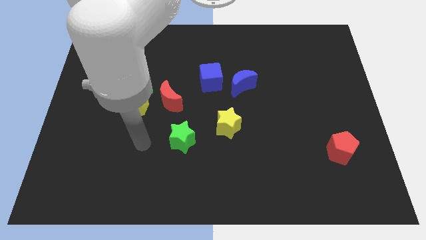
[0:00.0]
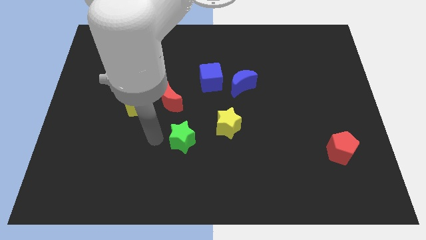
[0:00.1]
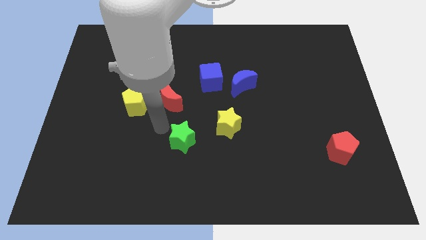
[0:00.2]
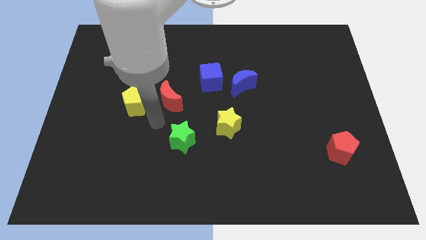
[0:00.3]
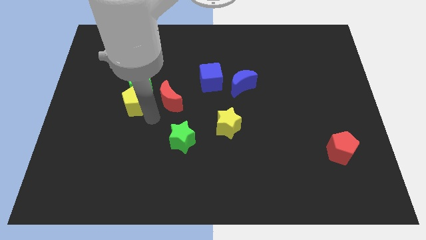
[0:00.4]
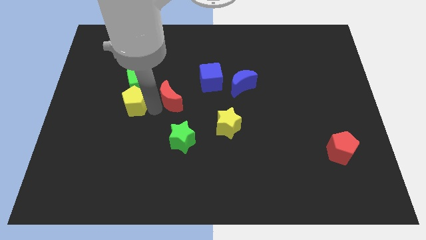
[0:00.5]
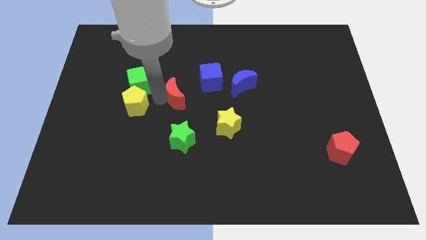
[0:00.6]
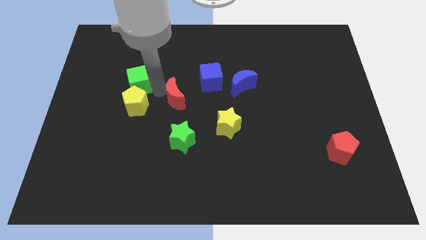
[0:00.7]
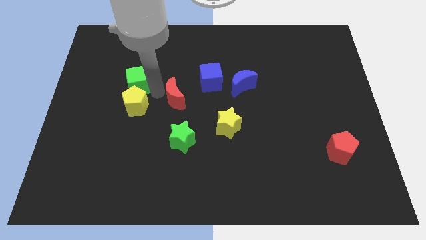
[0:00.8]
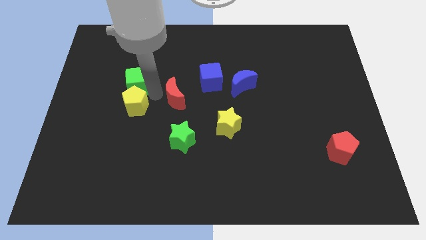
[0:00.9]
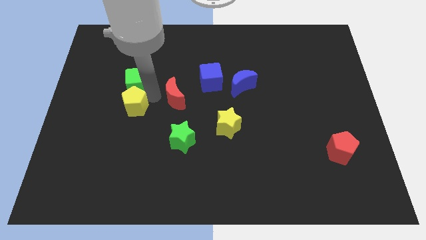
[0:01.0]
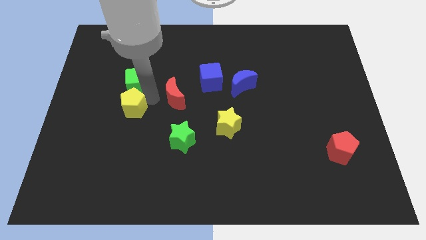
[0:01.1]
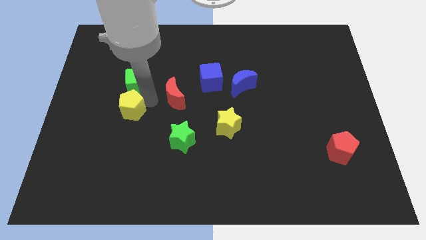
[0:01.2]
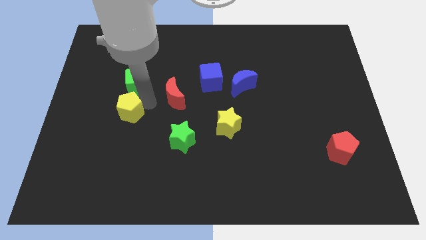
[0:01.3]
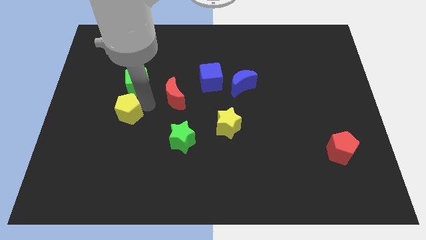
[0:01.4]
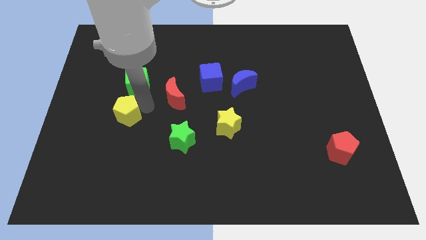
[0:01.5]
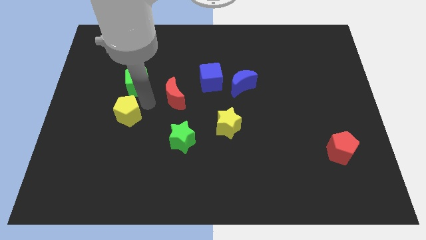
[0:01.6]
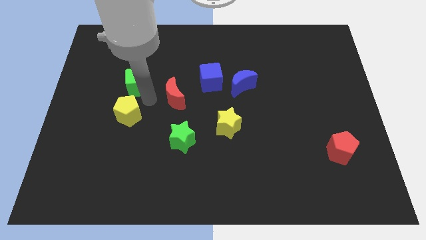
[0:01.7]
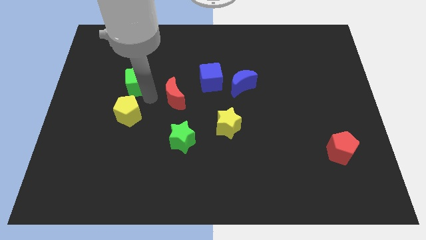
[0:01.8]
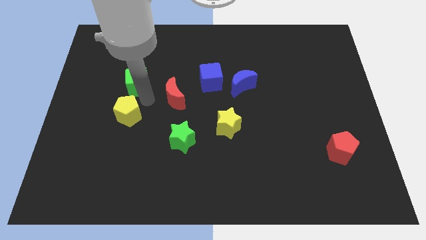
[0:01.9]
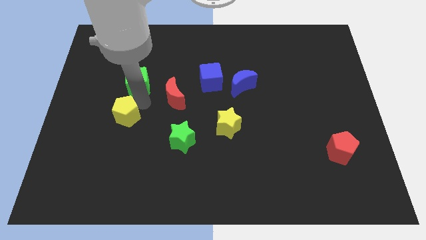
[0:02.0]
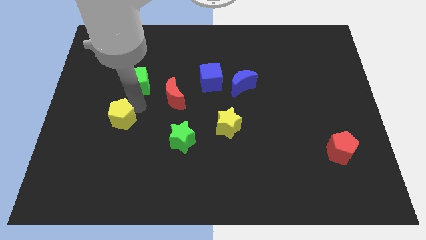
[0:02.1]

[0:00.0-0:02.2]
move the yellow pentagon away from the green cube and red moon

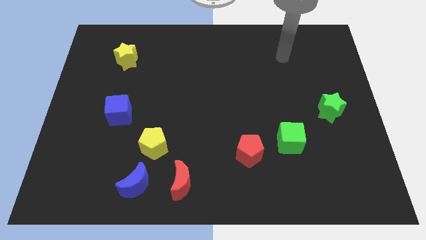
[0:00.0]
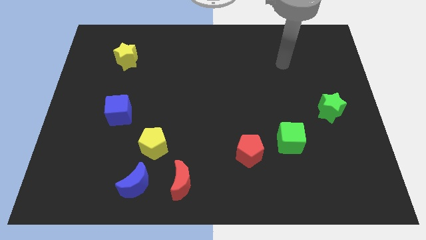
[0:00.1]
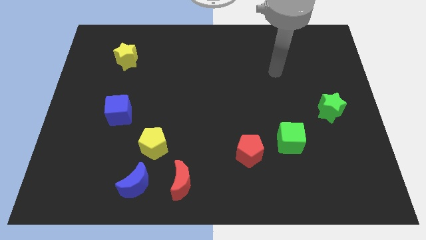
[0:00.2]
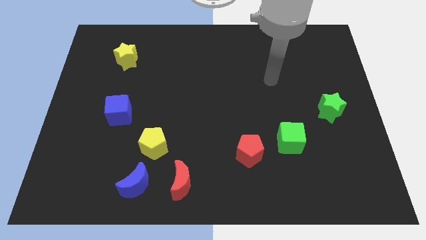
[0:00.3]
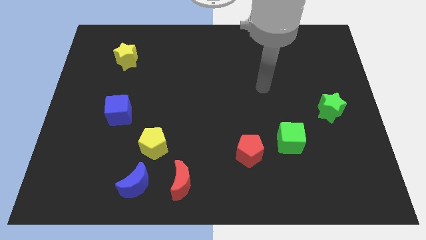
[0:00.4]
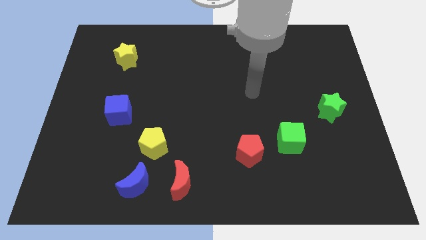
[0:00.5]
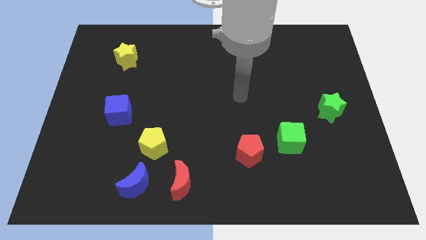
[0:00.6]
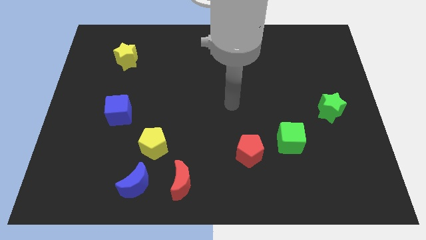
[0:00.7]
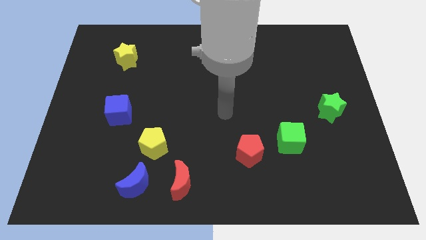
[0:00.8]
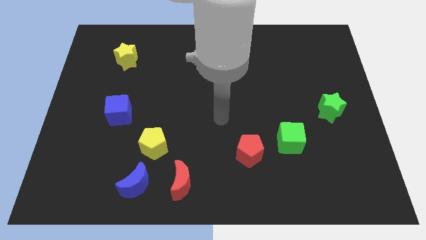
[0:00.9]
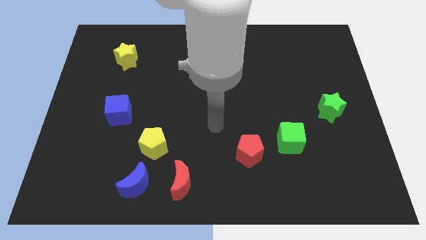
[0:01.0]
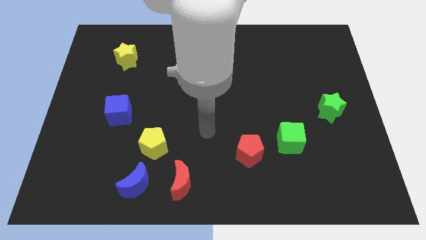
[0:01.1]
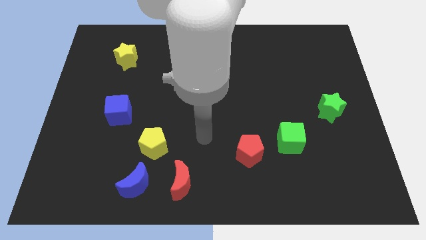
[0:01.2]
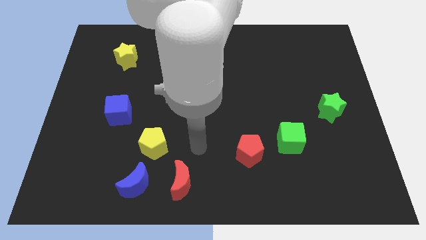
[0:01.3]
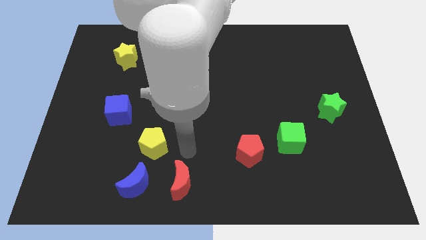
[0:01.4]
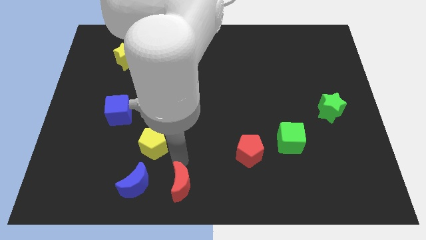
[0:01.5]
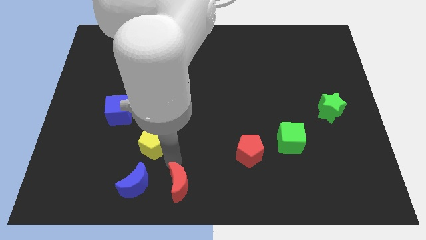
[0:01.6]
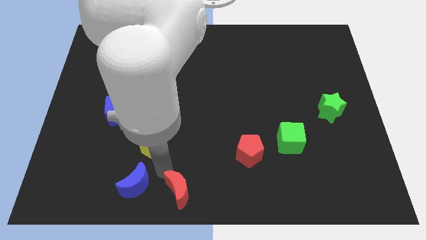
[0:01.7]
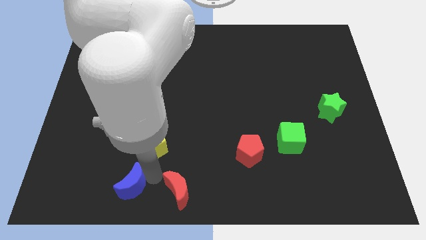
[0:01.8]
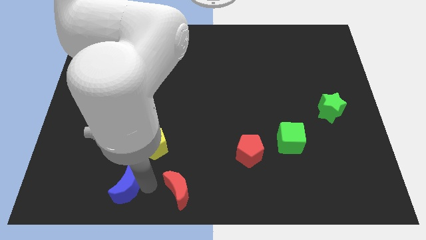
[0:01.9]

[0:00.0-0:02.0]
pull the red moon apart from the blue moon

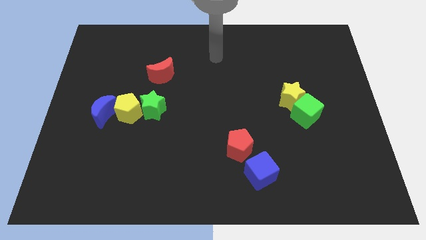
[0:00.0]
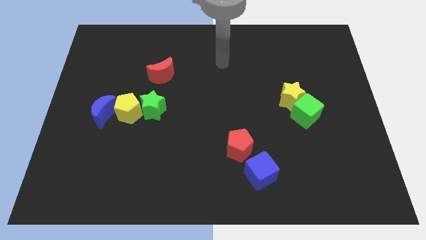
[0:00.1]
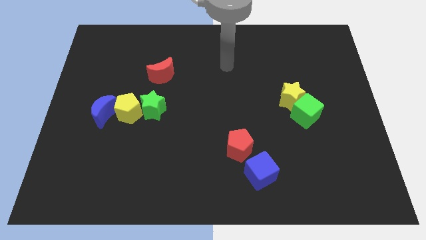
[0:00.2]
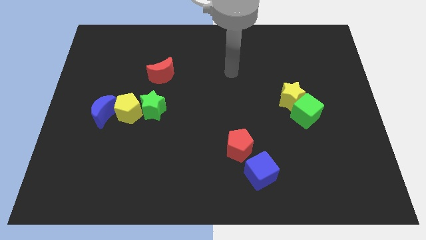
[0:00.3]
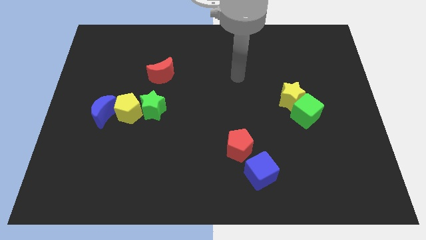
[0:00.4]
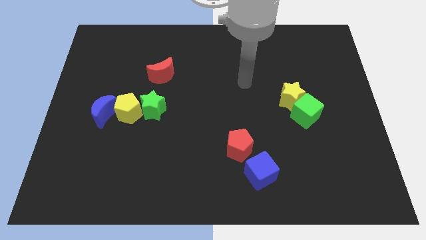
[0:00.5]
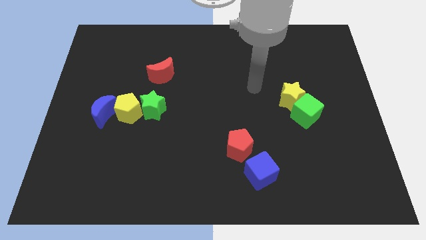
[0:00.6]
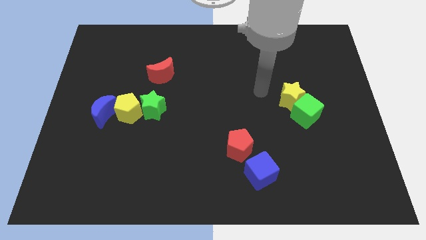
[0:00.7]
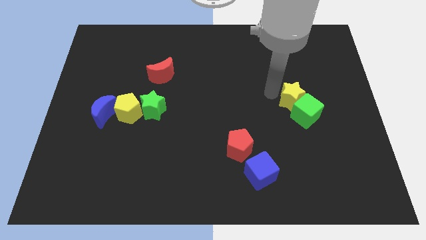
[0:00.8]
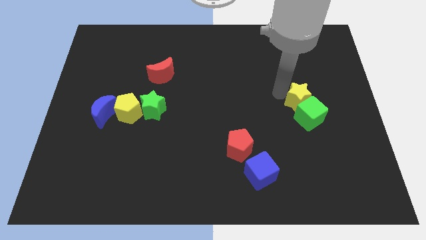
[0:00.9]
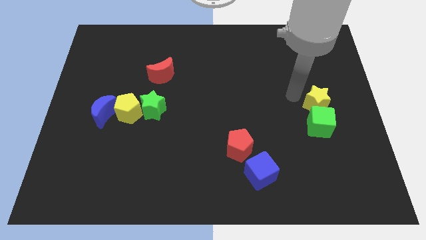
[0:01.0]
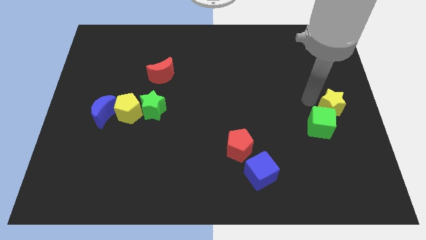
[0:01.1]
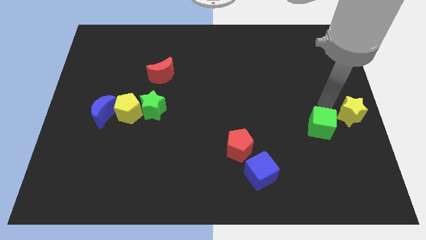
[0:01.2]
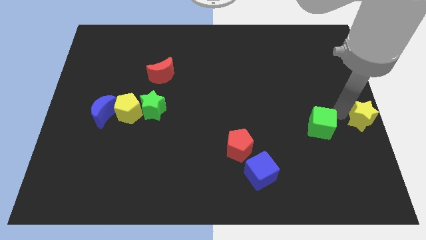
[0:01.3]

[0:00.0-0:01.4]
pull the green cube apart from the yellow star

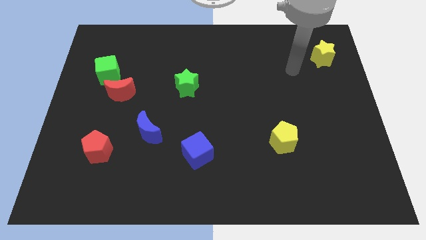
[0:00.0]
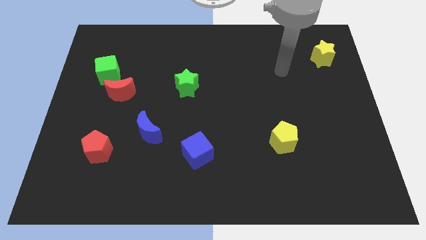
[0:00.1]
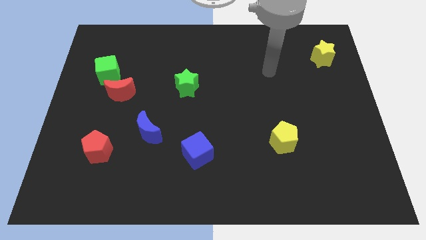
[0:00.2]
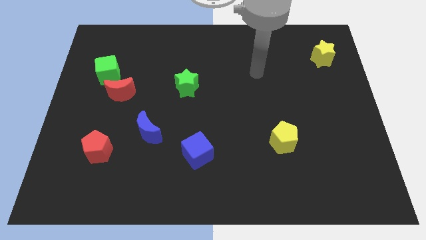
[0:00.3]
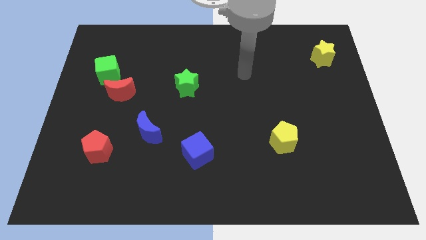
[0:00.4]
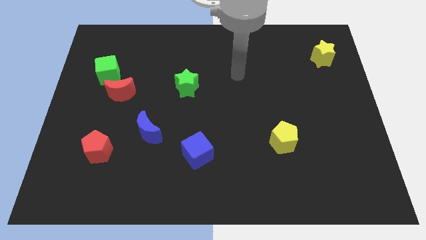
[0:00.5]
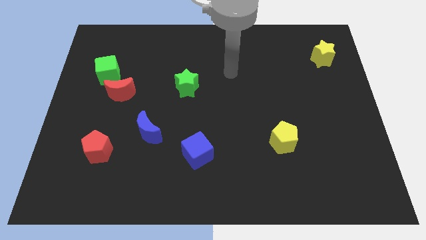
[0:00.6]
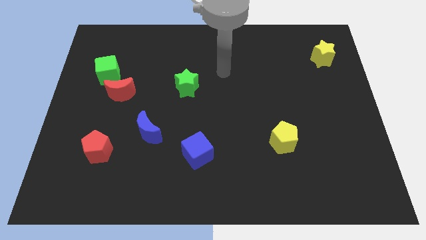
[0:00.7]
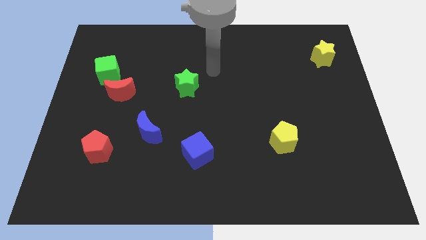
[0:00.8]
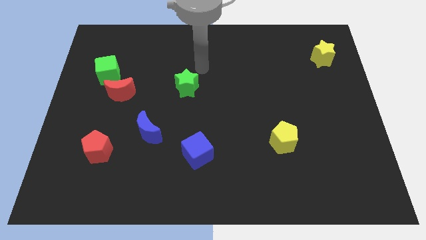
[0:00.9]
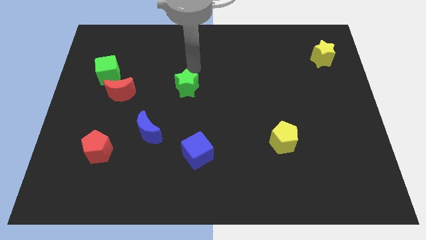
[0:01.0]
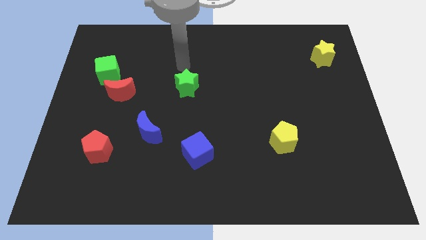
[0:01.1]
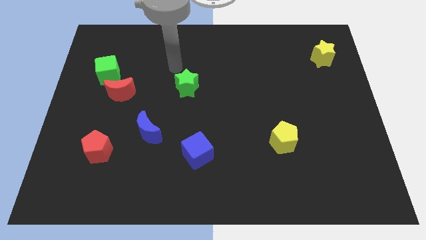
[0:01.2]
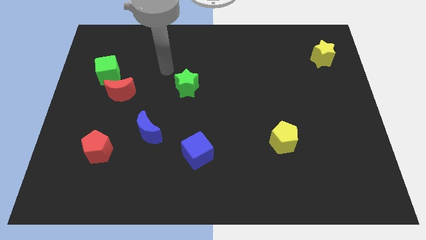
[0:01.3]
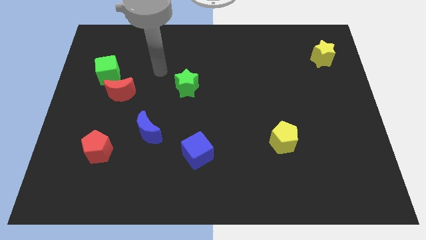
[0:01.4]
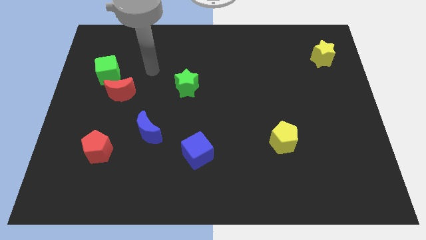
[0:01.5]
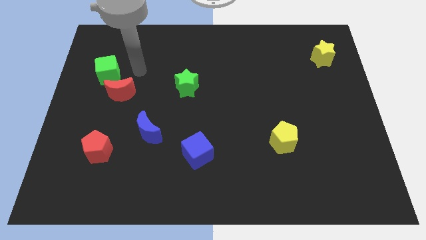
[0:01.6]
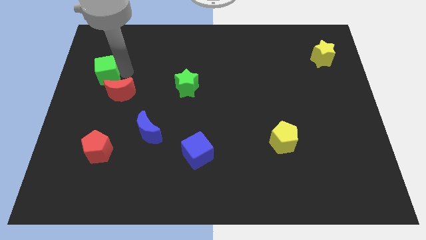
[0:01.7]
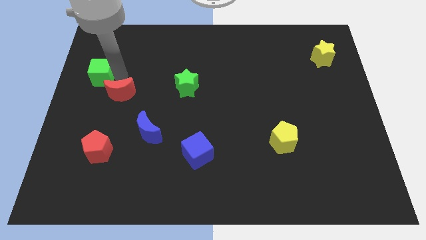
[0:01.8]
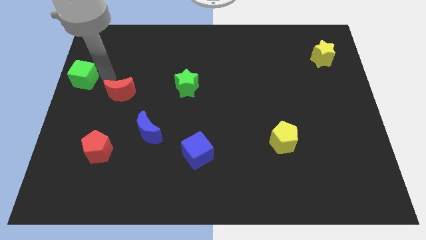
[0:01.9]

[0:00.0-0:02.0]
pull the red moon apart from the green cube

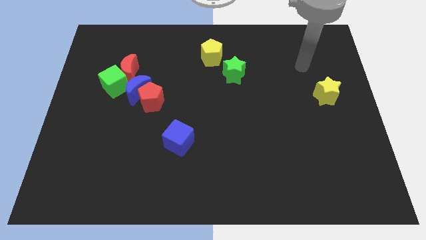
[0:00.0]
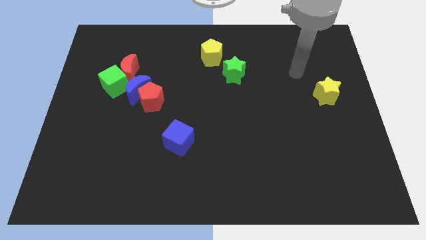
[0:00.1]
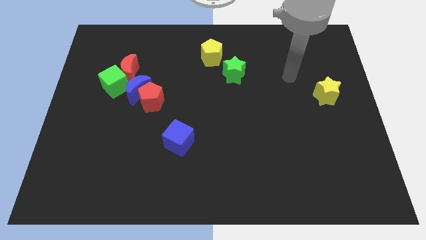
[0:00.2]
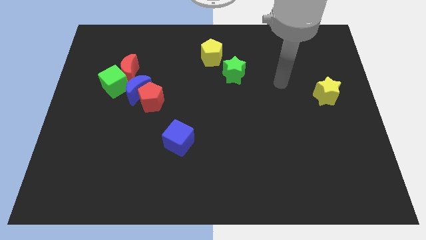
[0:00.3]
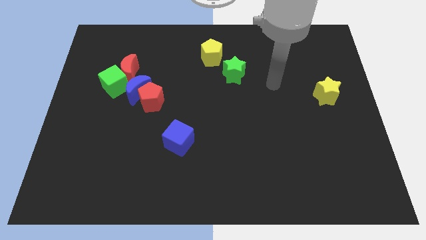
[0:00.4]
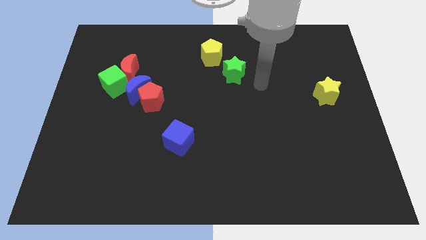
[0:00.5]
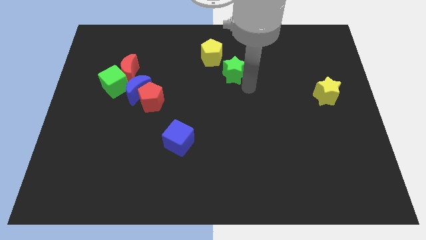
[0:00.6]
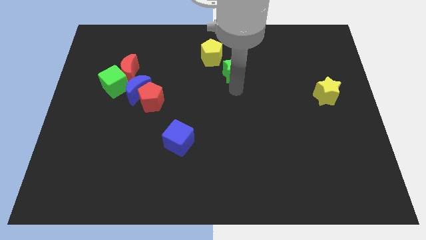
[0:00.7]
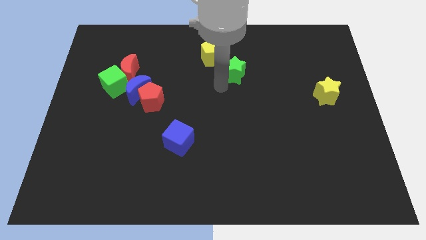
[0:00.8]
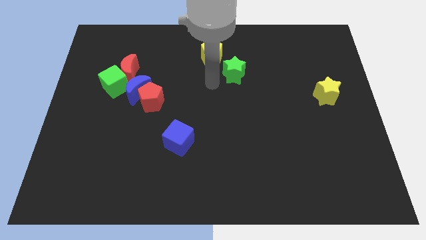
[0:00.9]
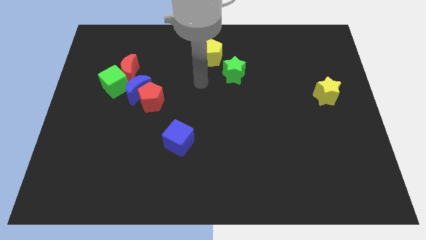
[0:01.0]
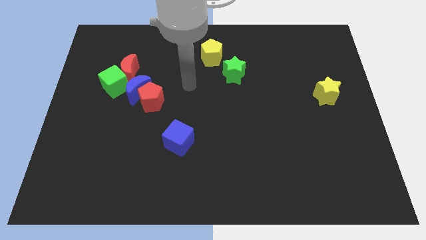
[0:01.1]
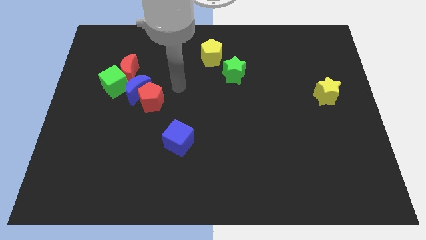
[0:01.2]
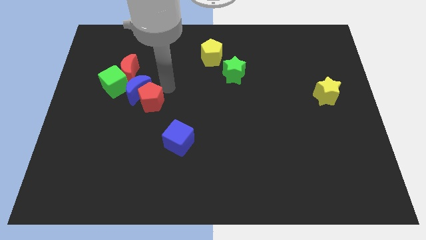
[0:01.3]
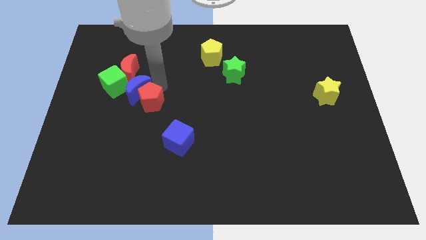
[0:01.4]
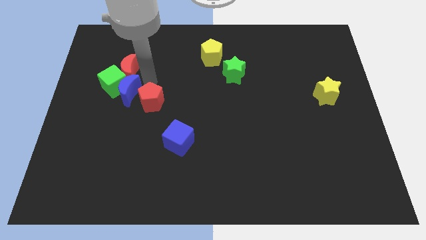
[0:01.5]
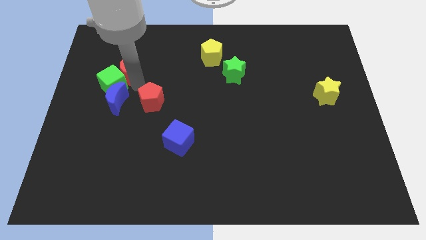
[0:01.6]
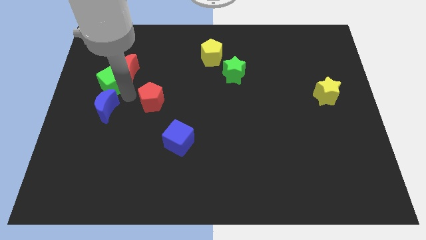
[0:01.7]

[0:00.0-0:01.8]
move the red pentagon away from the blue moon
